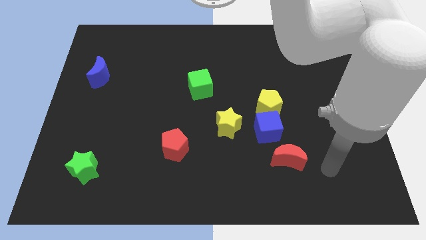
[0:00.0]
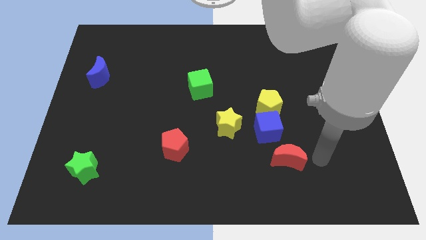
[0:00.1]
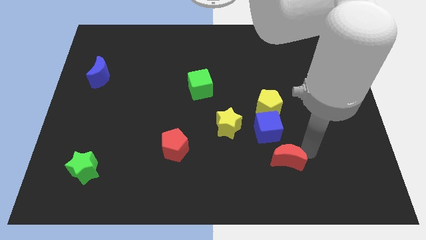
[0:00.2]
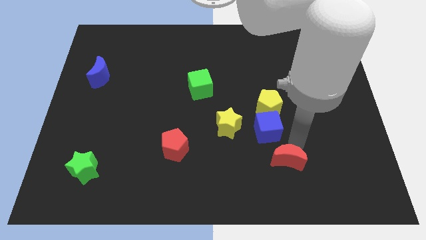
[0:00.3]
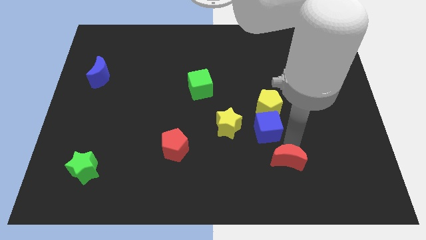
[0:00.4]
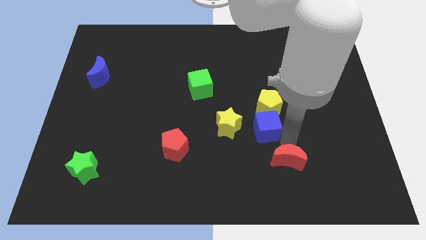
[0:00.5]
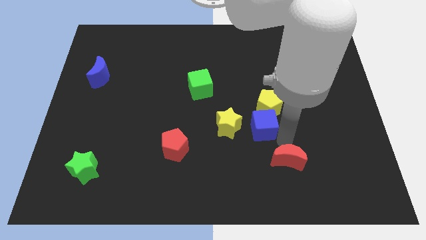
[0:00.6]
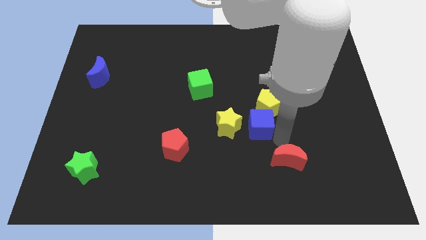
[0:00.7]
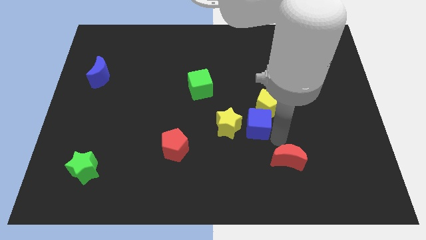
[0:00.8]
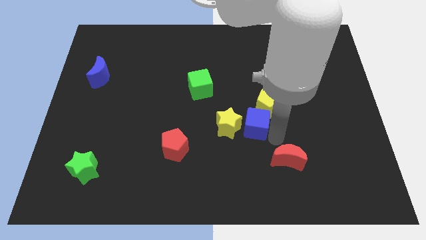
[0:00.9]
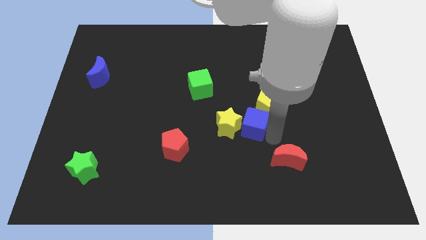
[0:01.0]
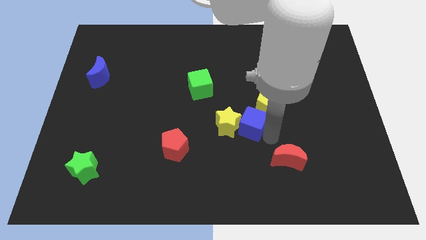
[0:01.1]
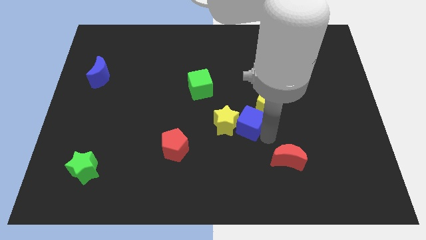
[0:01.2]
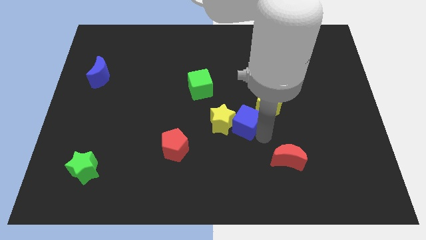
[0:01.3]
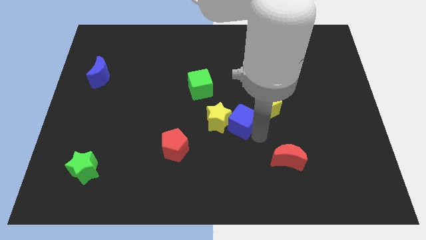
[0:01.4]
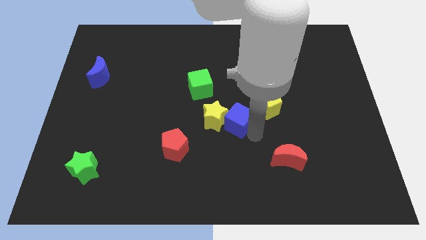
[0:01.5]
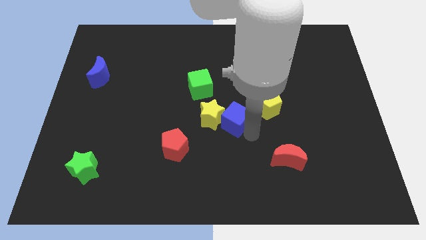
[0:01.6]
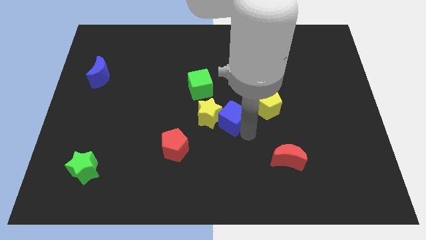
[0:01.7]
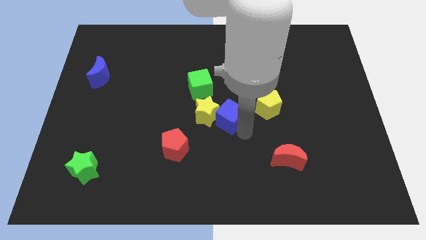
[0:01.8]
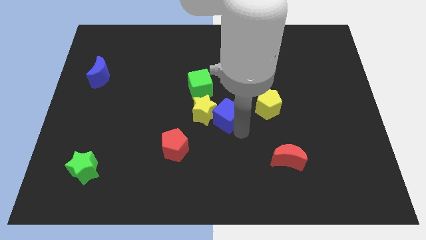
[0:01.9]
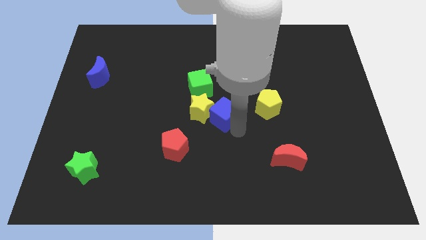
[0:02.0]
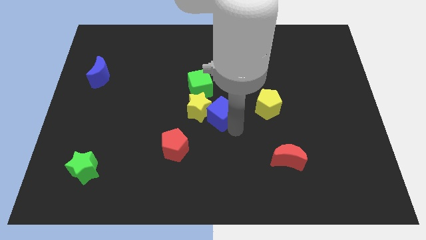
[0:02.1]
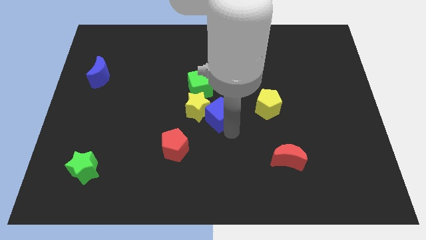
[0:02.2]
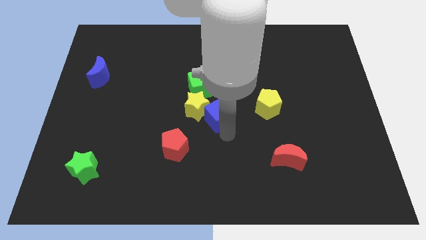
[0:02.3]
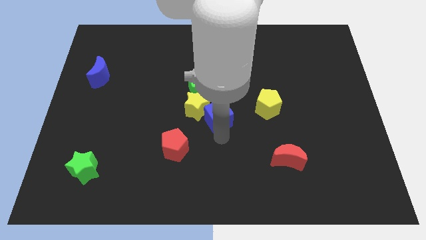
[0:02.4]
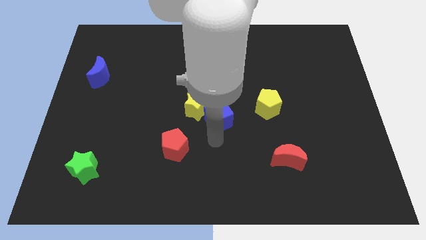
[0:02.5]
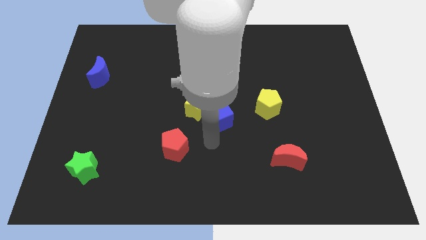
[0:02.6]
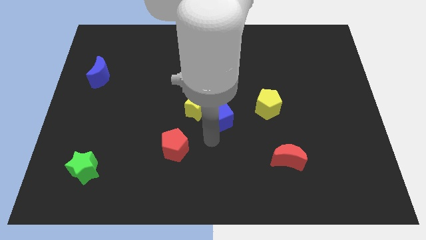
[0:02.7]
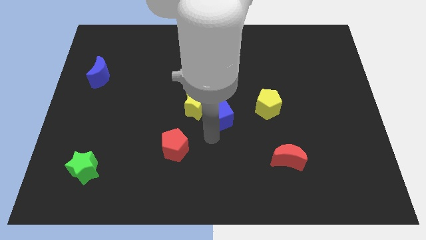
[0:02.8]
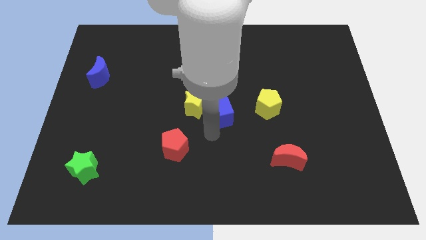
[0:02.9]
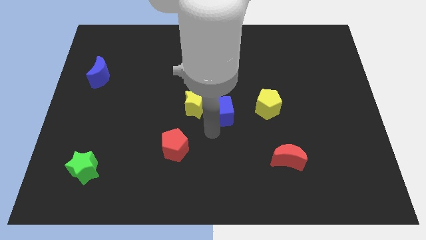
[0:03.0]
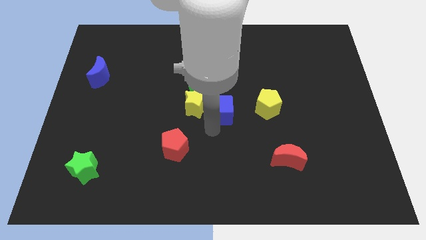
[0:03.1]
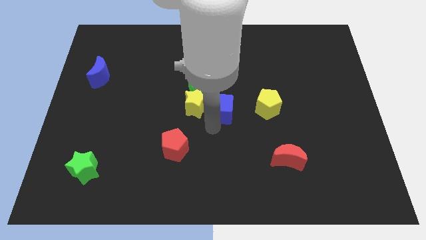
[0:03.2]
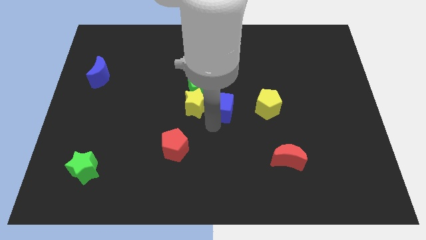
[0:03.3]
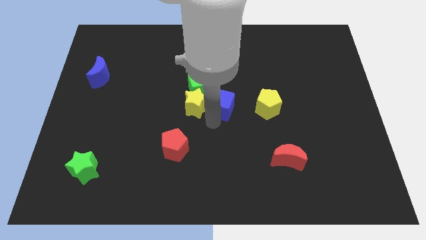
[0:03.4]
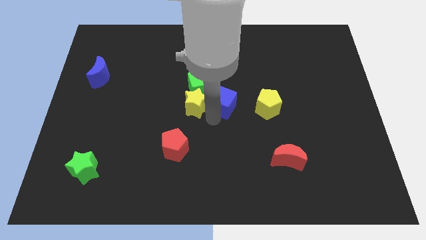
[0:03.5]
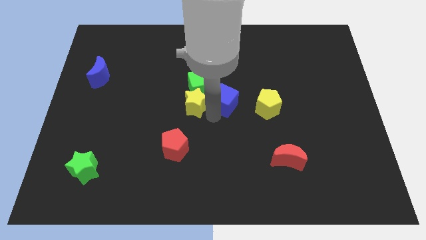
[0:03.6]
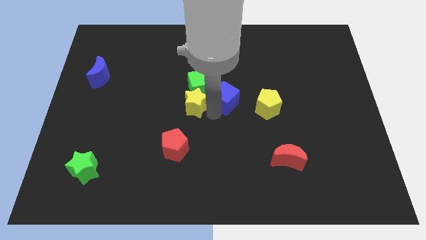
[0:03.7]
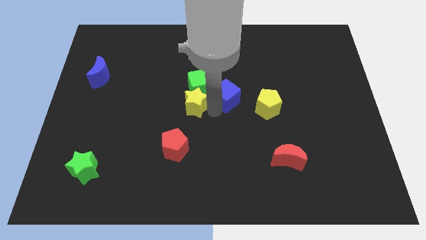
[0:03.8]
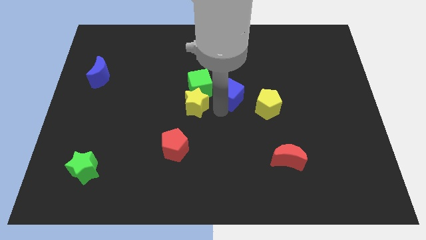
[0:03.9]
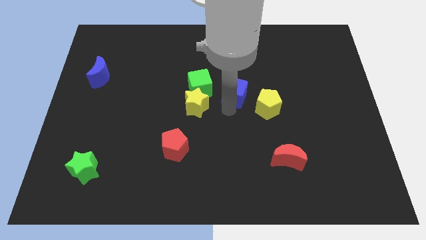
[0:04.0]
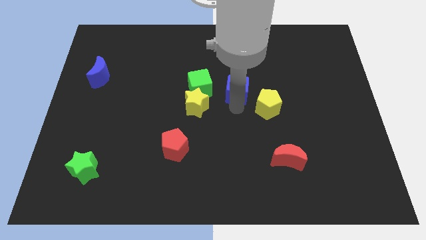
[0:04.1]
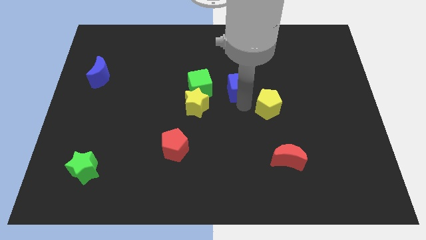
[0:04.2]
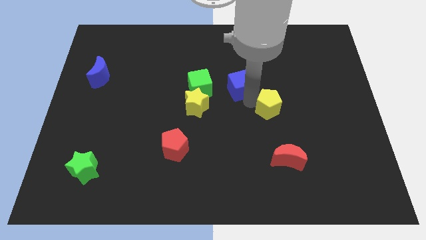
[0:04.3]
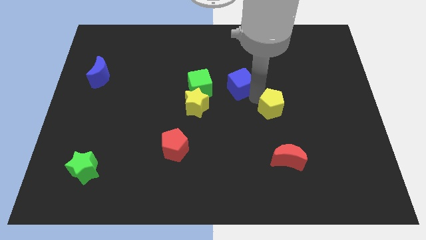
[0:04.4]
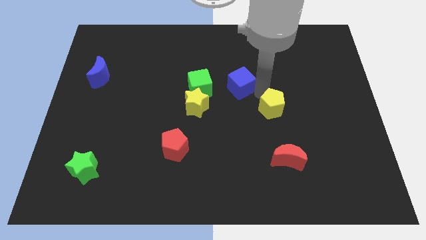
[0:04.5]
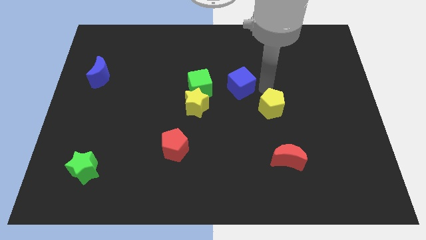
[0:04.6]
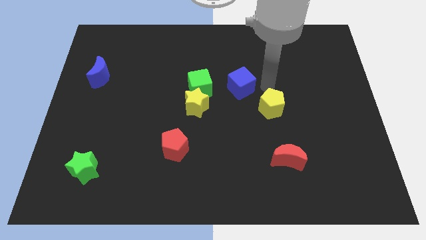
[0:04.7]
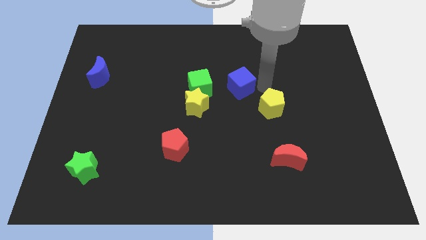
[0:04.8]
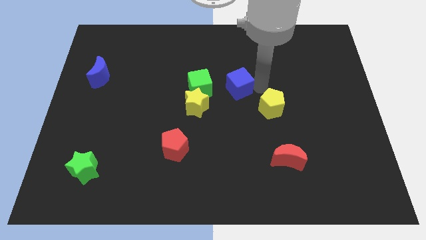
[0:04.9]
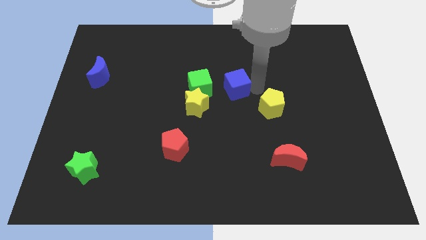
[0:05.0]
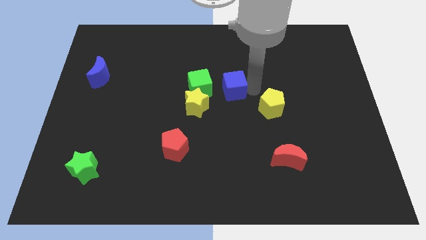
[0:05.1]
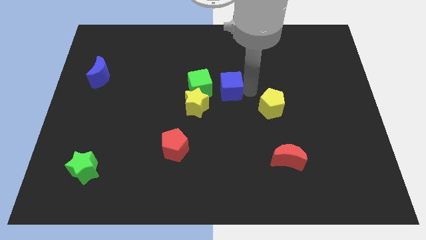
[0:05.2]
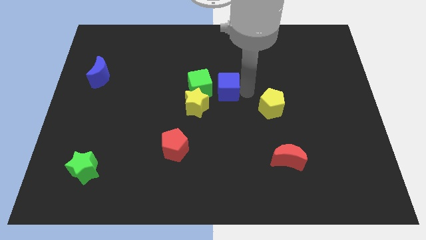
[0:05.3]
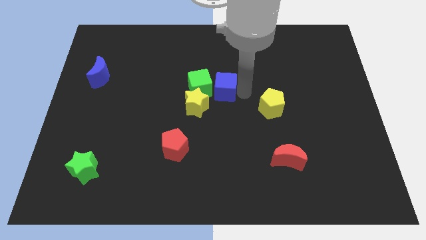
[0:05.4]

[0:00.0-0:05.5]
move the blue cube close to the green cube

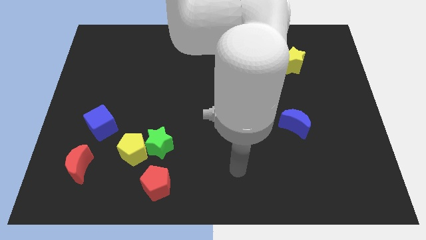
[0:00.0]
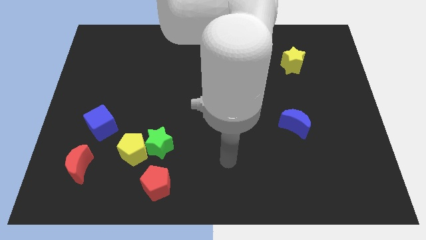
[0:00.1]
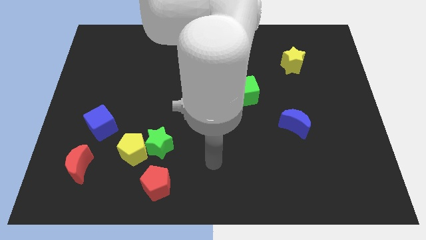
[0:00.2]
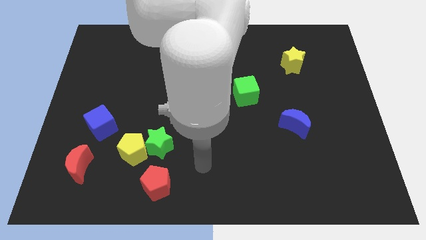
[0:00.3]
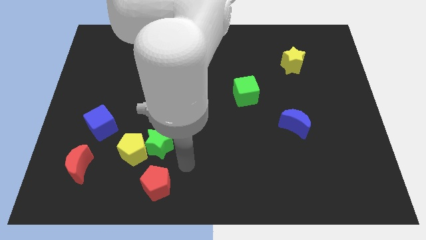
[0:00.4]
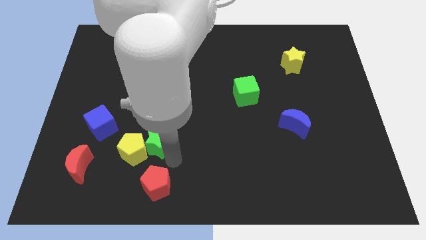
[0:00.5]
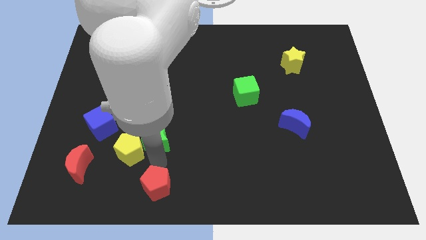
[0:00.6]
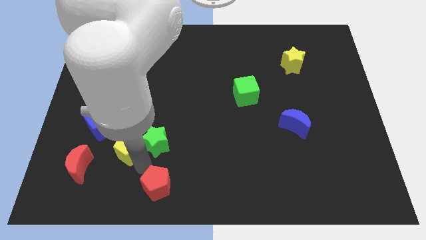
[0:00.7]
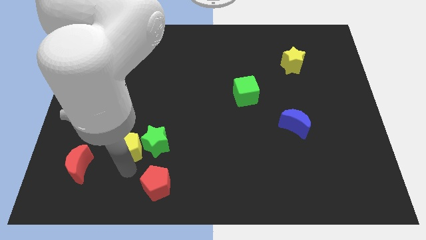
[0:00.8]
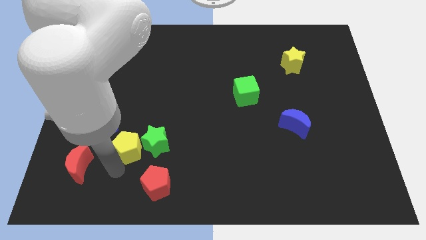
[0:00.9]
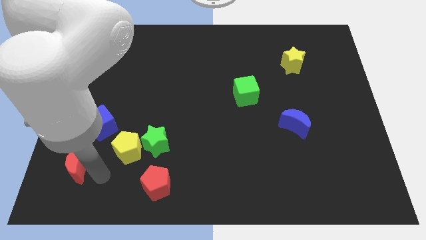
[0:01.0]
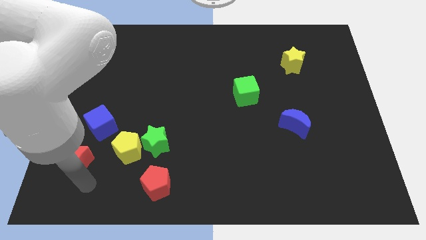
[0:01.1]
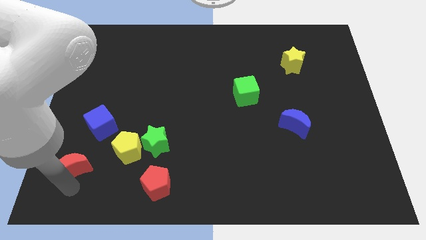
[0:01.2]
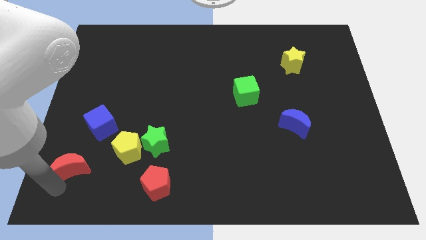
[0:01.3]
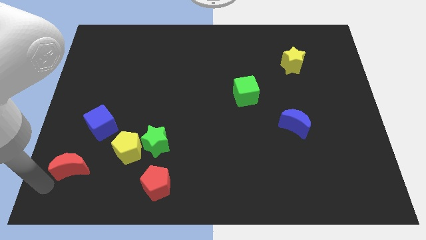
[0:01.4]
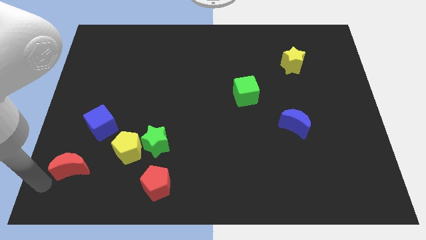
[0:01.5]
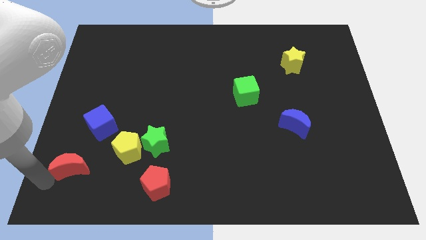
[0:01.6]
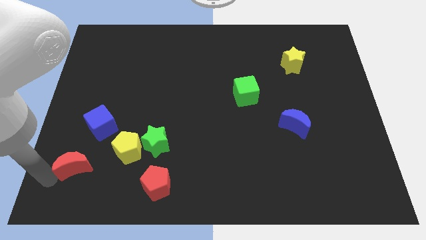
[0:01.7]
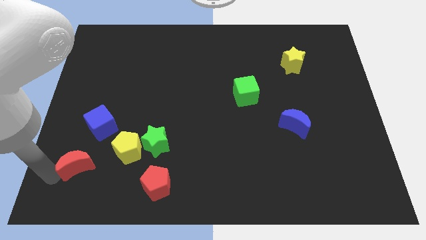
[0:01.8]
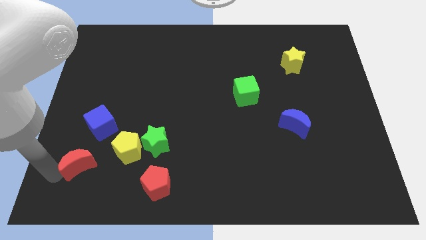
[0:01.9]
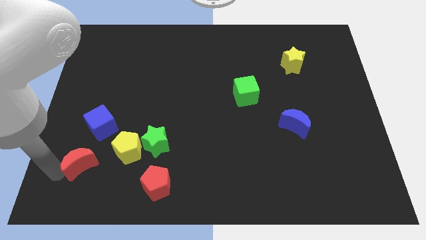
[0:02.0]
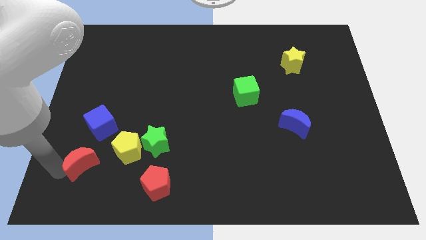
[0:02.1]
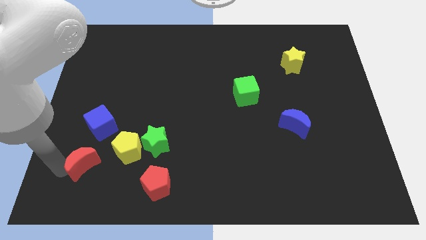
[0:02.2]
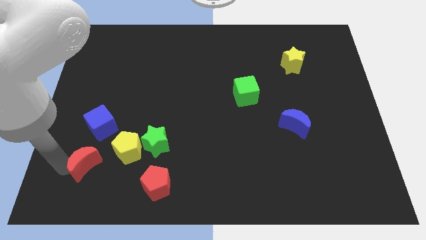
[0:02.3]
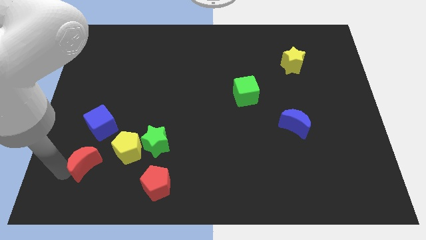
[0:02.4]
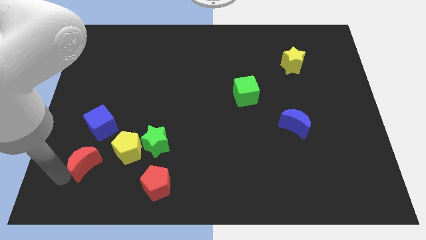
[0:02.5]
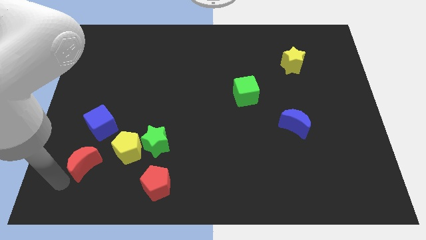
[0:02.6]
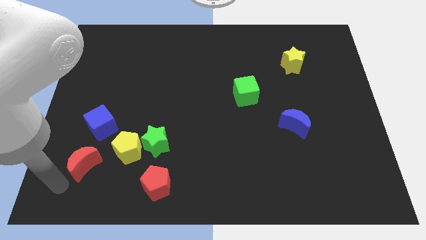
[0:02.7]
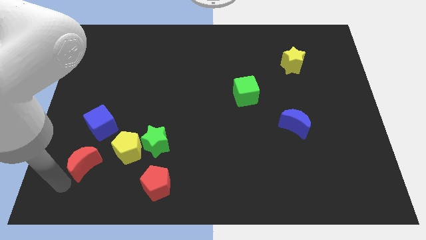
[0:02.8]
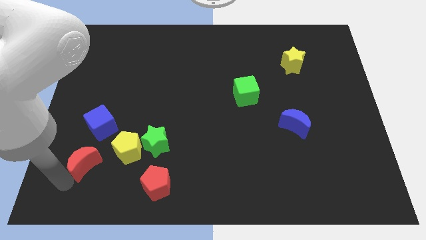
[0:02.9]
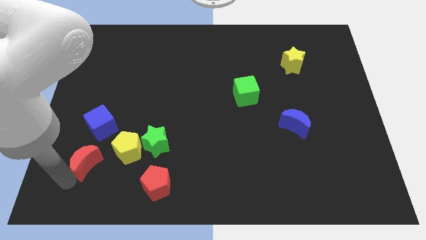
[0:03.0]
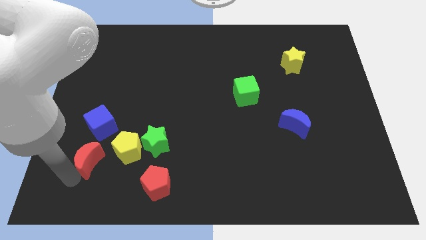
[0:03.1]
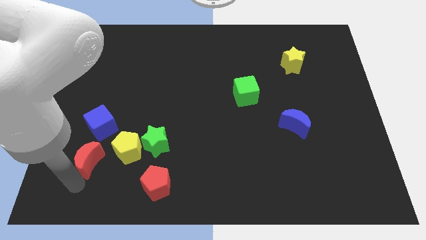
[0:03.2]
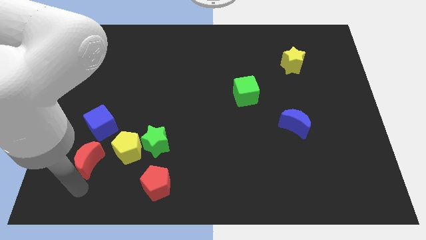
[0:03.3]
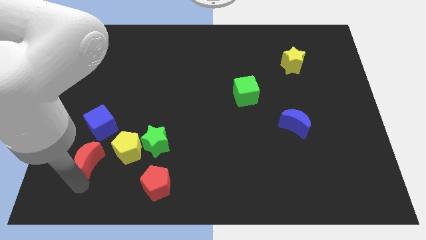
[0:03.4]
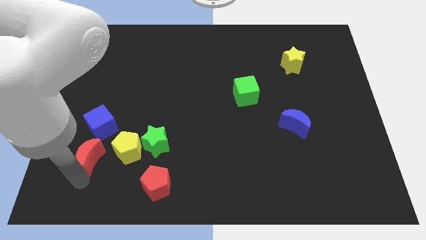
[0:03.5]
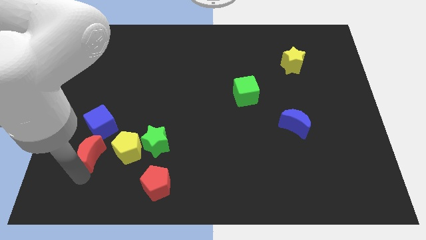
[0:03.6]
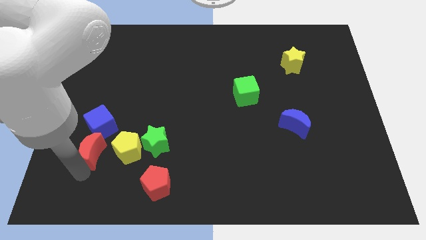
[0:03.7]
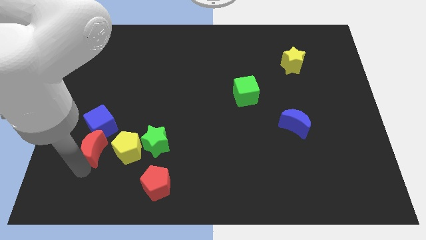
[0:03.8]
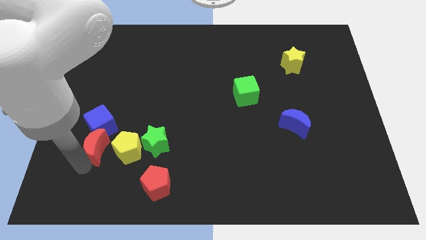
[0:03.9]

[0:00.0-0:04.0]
move the red moon close to the blue cube
